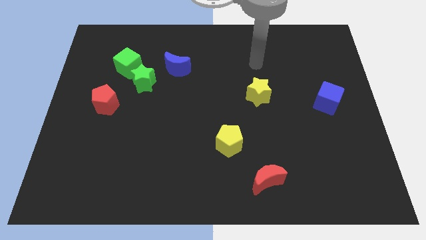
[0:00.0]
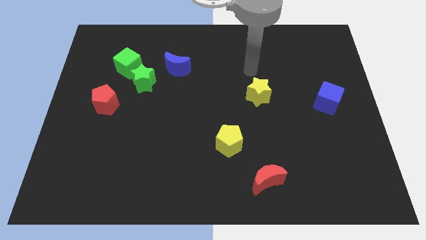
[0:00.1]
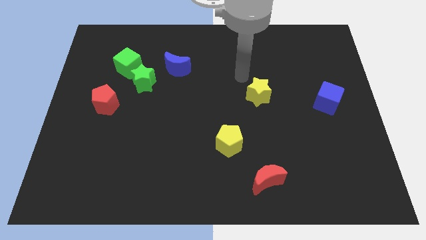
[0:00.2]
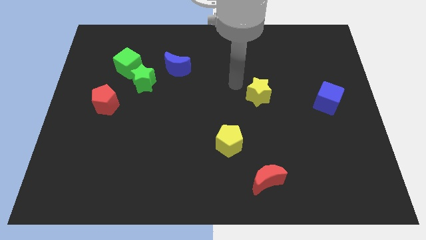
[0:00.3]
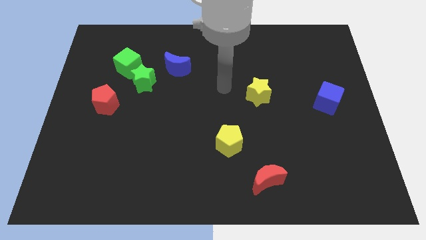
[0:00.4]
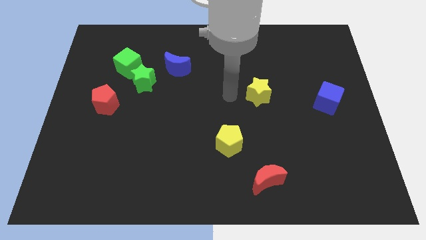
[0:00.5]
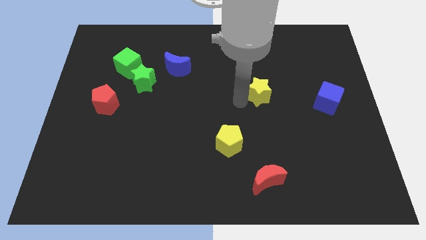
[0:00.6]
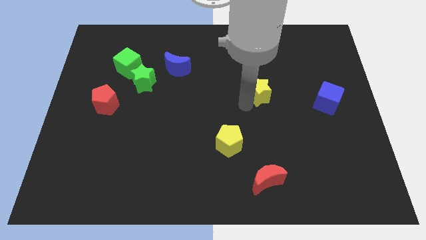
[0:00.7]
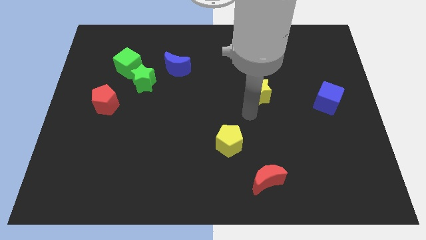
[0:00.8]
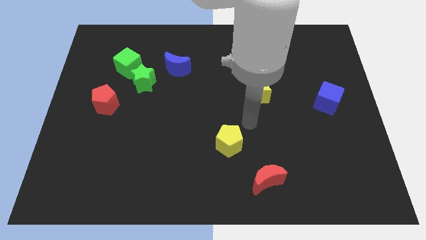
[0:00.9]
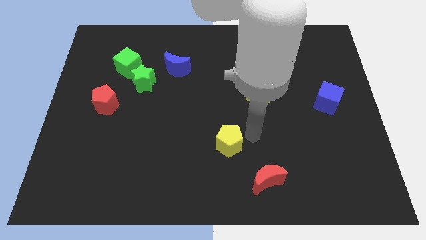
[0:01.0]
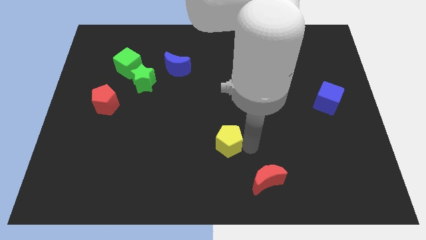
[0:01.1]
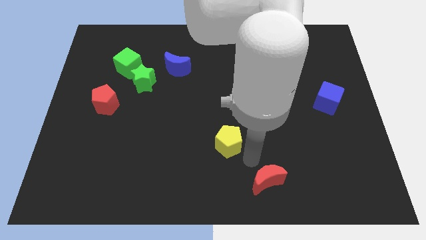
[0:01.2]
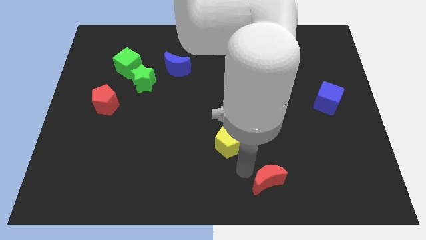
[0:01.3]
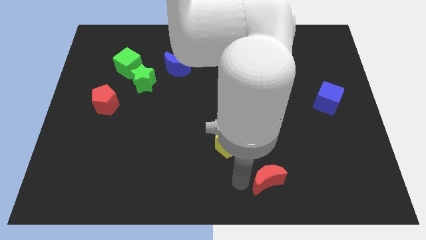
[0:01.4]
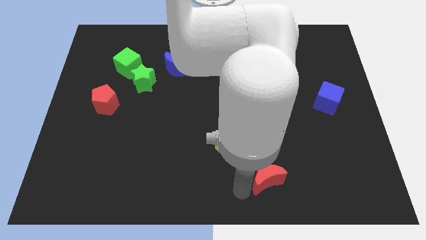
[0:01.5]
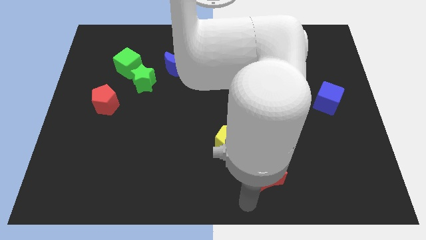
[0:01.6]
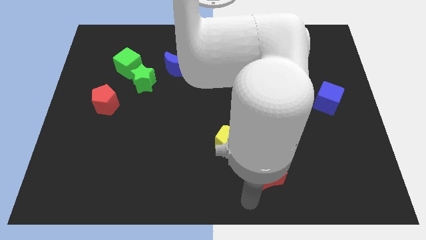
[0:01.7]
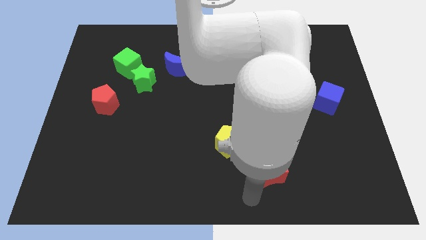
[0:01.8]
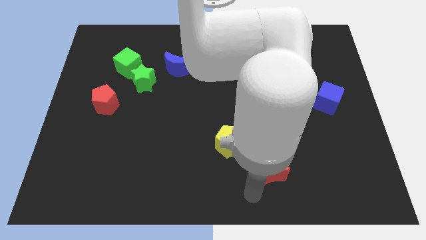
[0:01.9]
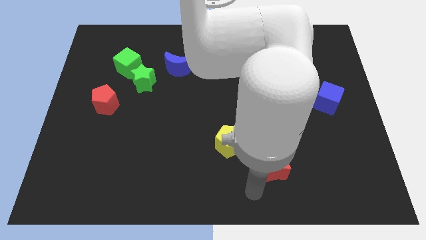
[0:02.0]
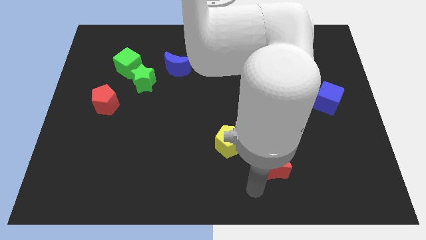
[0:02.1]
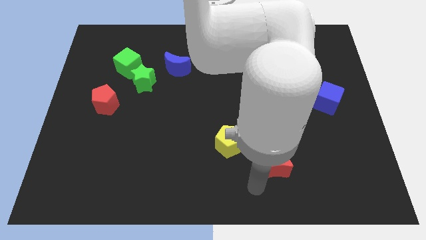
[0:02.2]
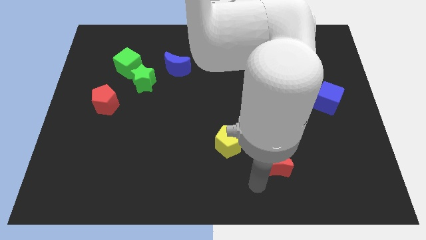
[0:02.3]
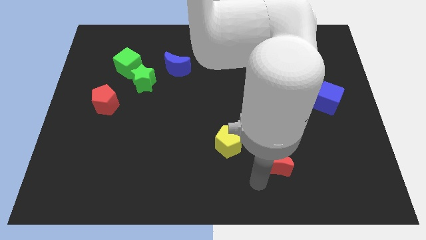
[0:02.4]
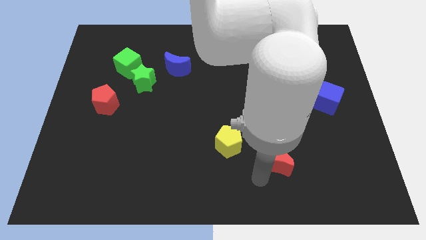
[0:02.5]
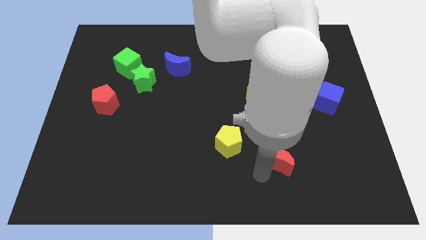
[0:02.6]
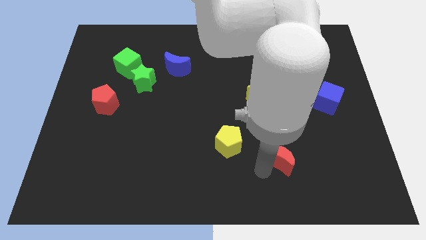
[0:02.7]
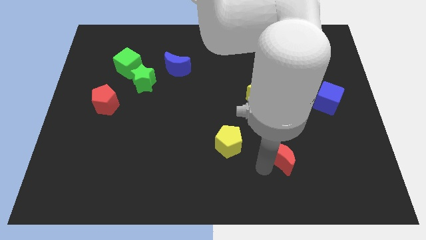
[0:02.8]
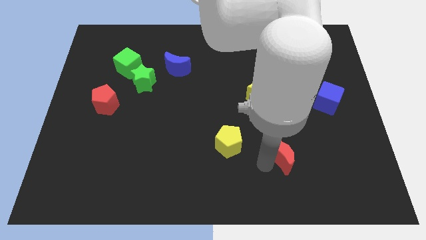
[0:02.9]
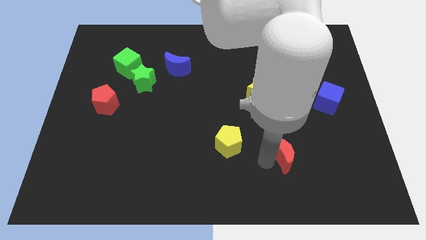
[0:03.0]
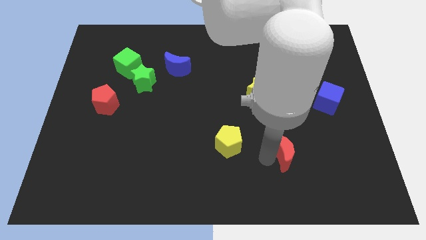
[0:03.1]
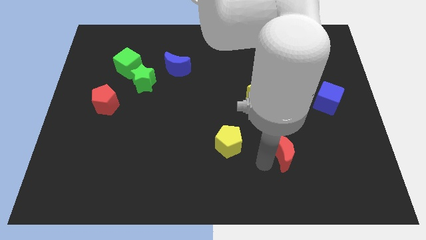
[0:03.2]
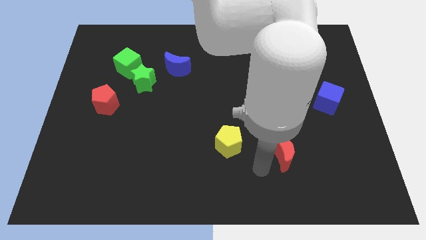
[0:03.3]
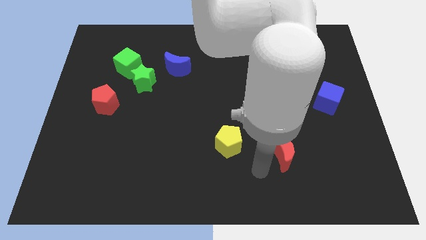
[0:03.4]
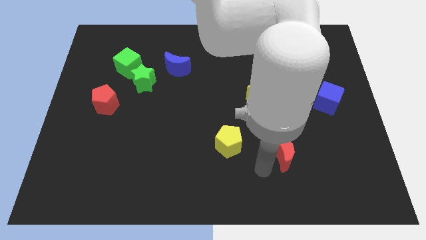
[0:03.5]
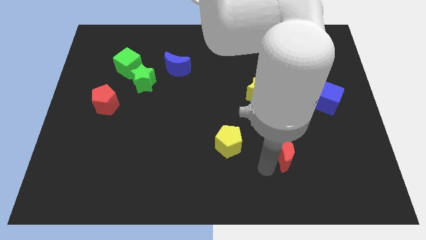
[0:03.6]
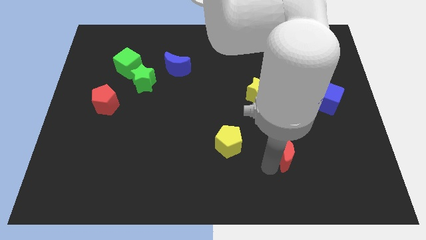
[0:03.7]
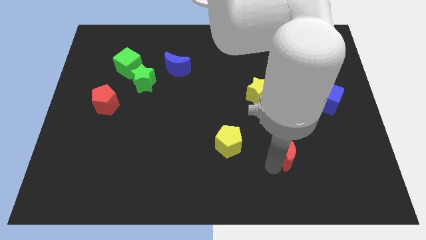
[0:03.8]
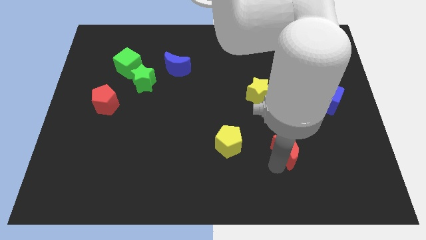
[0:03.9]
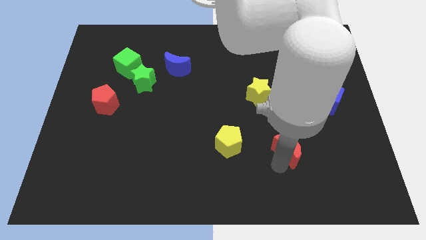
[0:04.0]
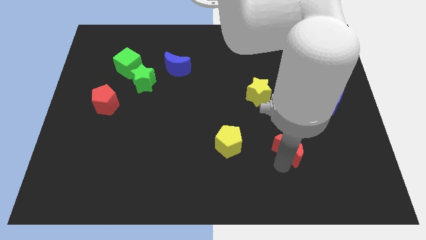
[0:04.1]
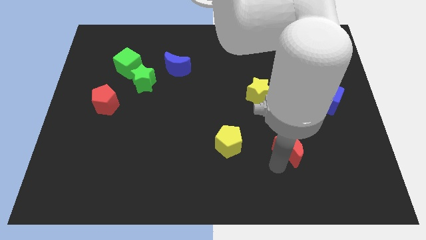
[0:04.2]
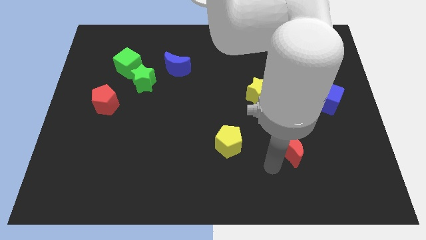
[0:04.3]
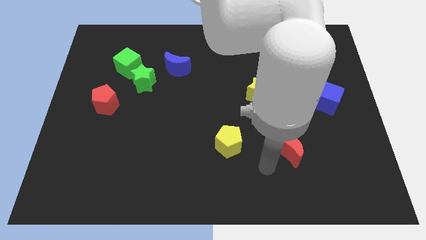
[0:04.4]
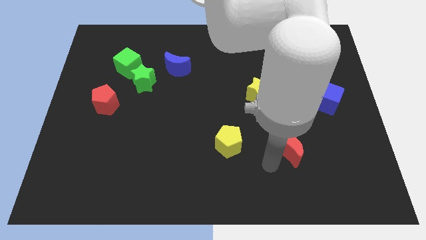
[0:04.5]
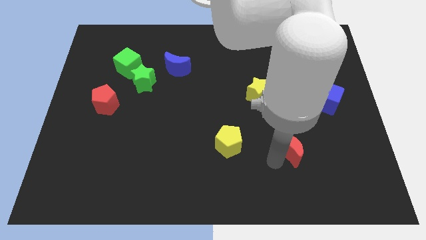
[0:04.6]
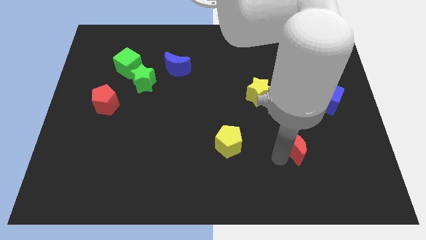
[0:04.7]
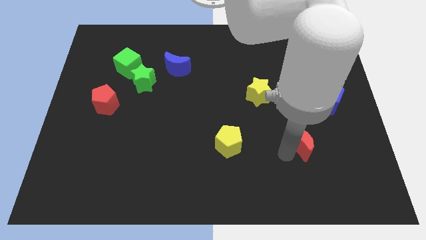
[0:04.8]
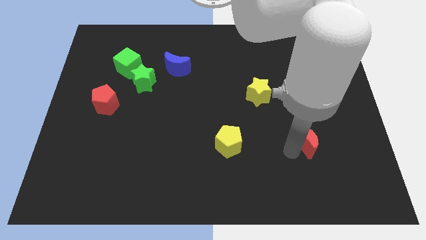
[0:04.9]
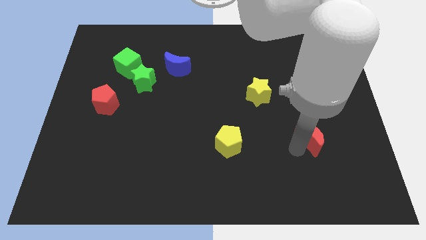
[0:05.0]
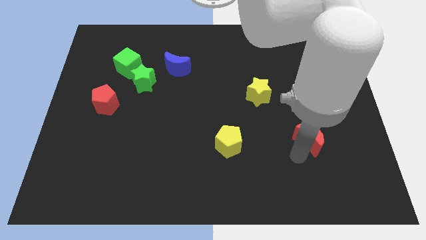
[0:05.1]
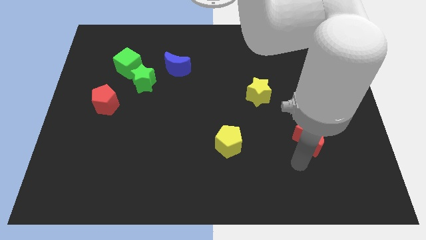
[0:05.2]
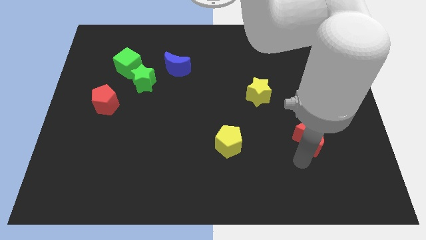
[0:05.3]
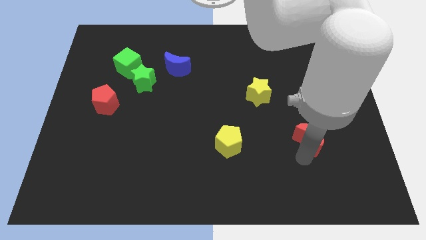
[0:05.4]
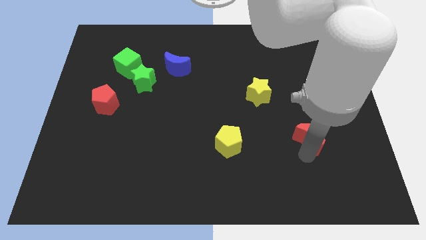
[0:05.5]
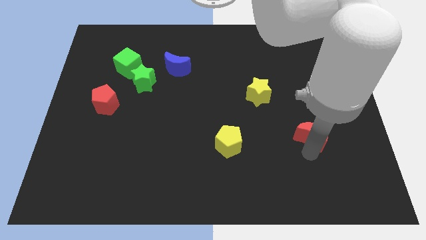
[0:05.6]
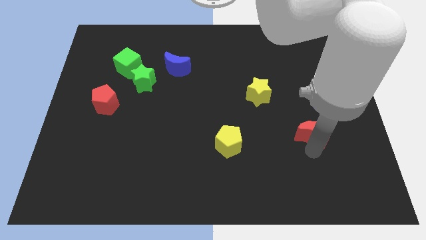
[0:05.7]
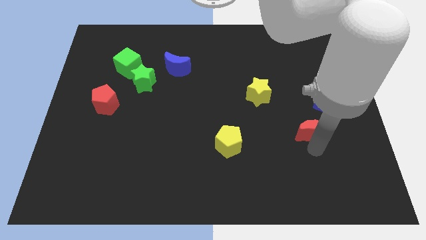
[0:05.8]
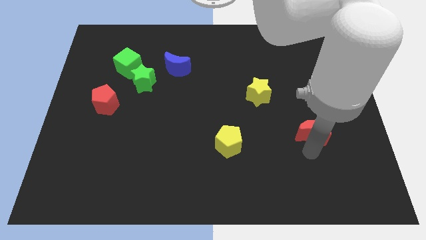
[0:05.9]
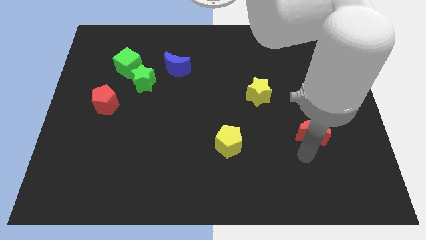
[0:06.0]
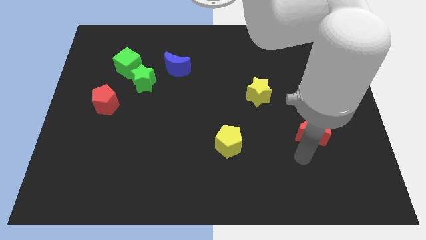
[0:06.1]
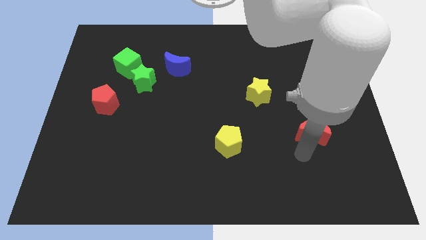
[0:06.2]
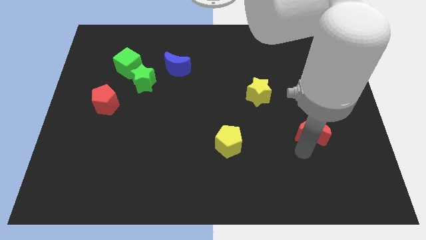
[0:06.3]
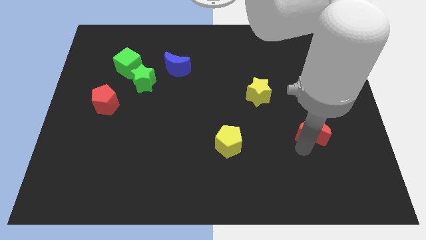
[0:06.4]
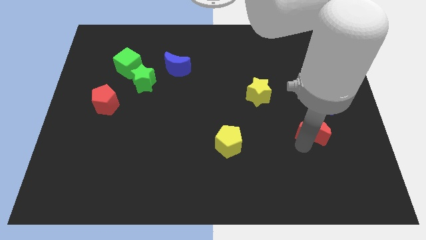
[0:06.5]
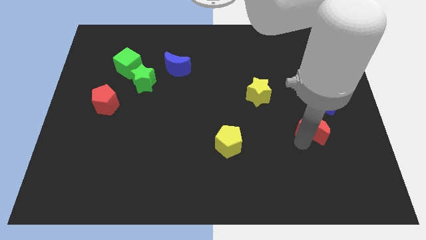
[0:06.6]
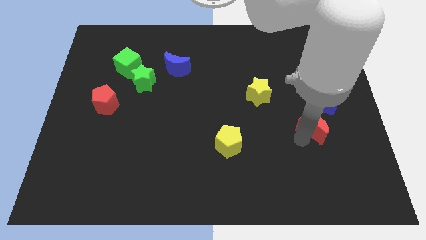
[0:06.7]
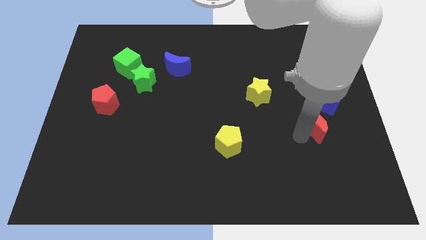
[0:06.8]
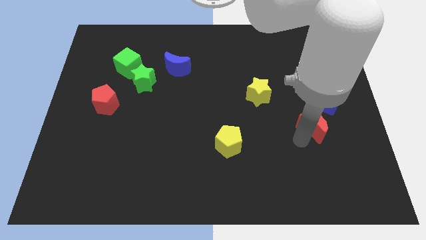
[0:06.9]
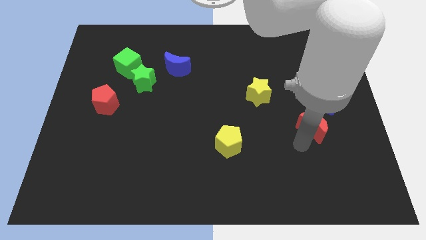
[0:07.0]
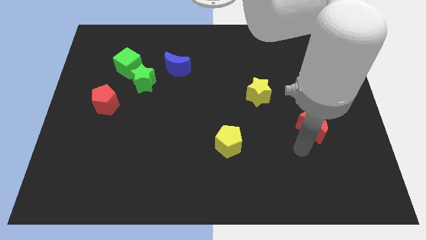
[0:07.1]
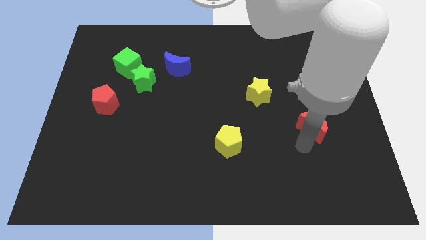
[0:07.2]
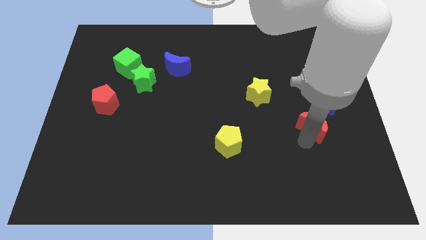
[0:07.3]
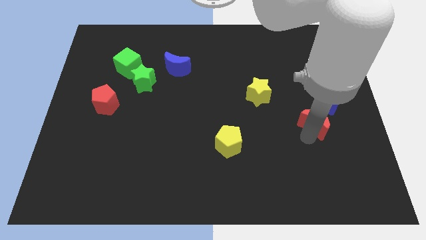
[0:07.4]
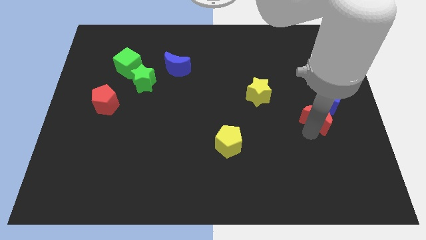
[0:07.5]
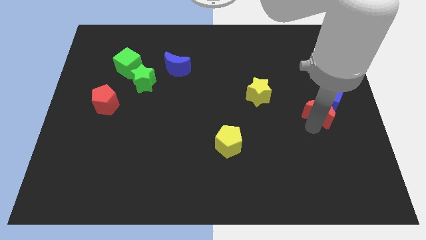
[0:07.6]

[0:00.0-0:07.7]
push the red moon to the blue cube
